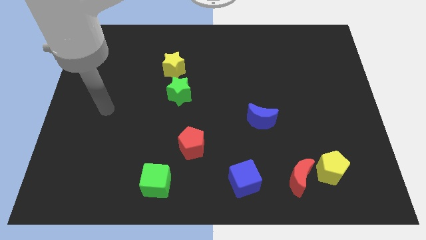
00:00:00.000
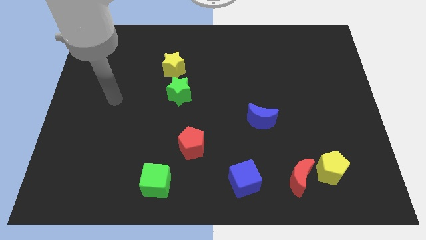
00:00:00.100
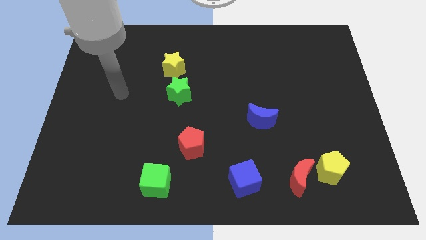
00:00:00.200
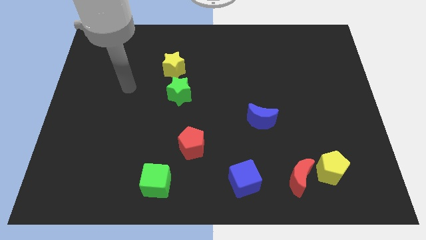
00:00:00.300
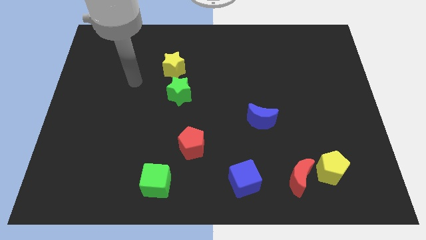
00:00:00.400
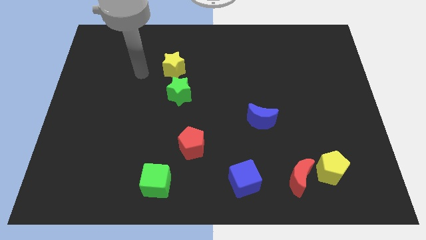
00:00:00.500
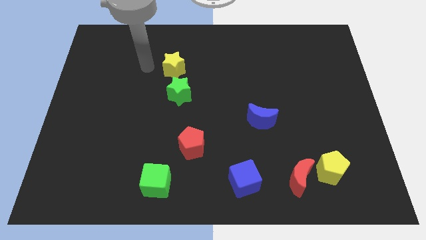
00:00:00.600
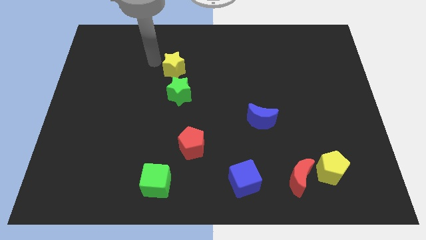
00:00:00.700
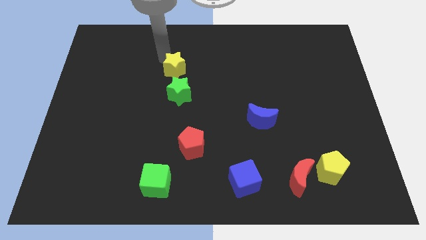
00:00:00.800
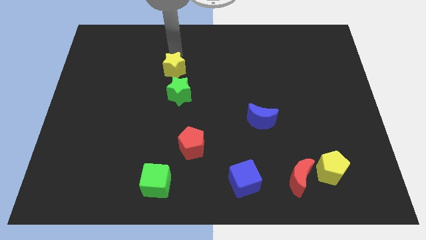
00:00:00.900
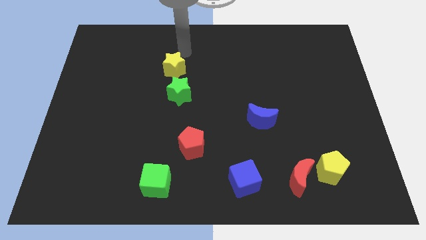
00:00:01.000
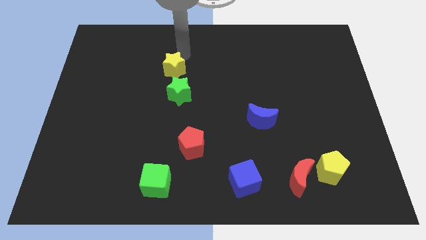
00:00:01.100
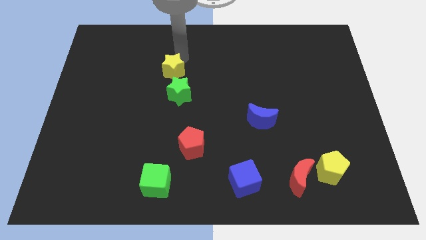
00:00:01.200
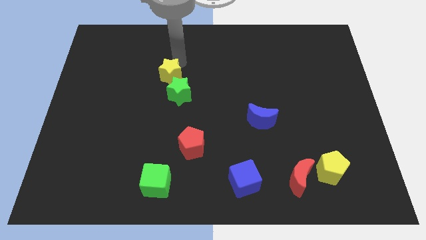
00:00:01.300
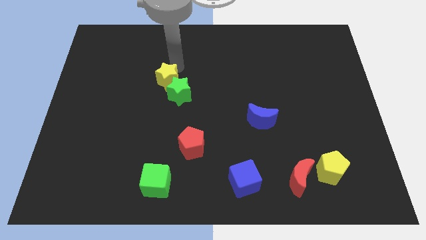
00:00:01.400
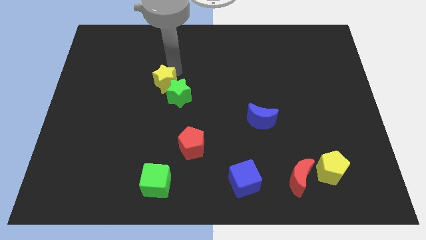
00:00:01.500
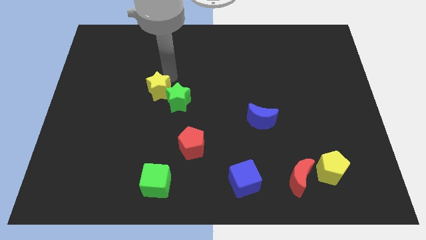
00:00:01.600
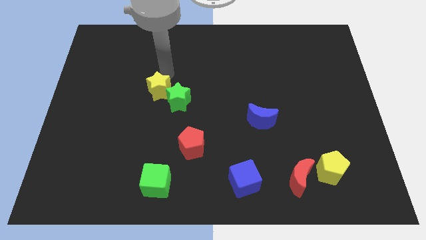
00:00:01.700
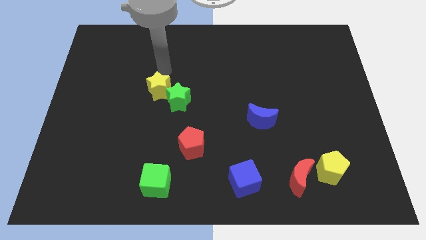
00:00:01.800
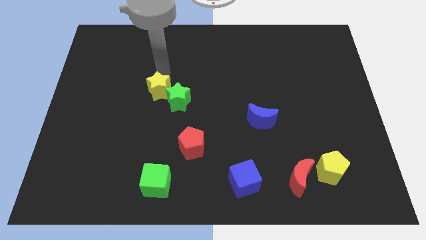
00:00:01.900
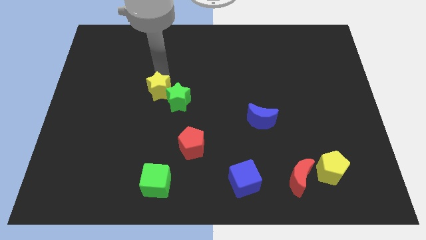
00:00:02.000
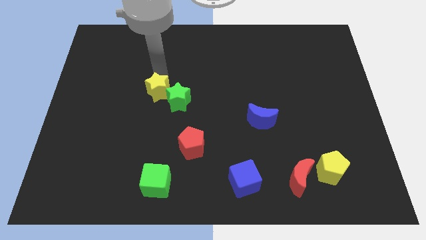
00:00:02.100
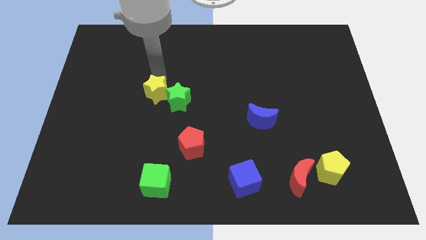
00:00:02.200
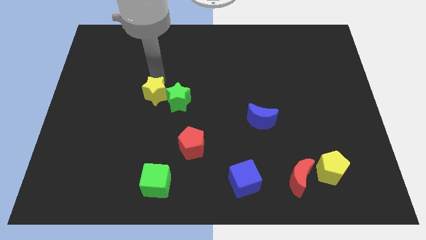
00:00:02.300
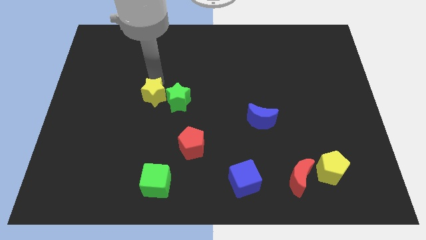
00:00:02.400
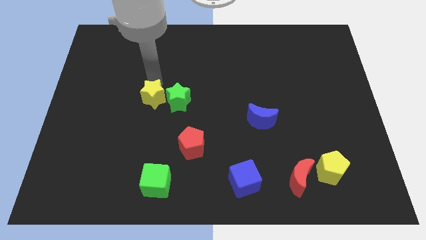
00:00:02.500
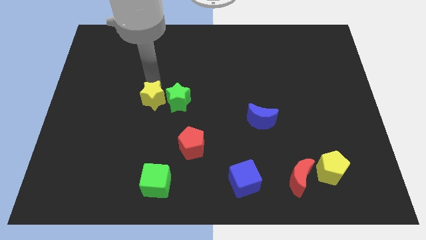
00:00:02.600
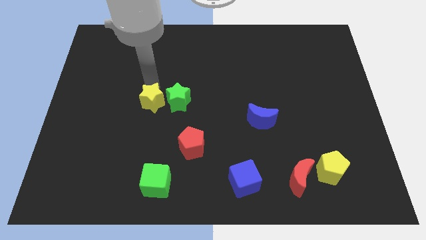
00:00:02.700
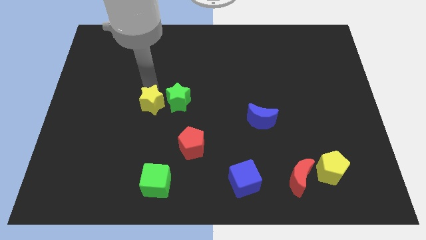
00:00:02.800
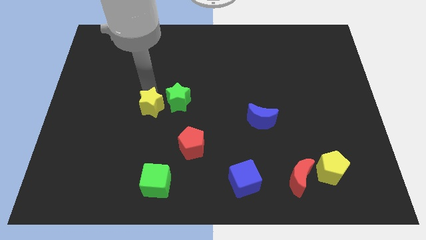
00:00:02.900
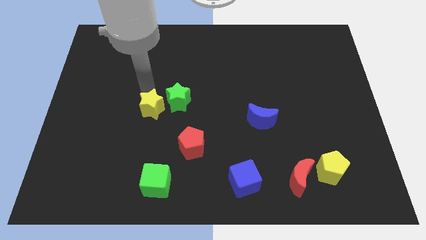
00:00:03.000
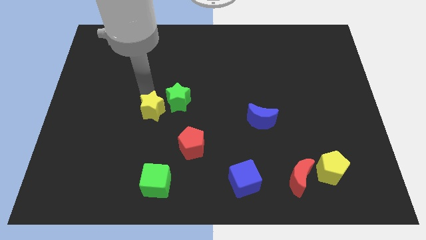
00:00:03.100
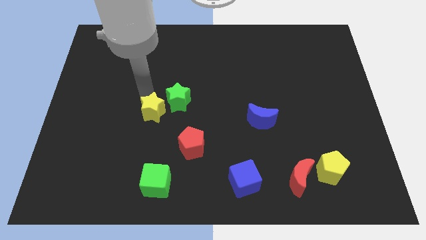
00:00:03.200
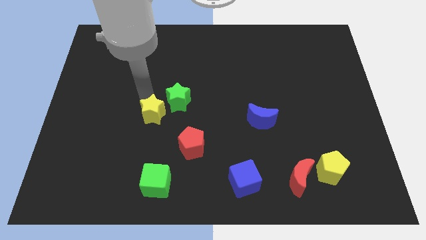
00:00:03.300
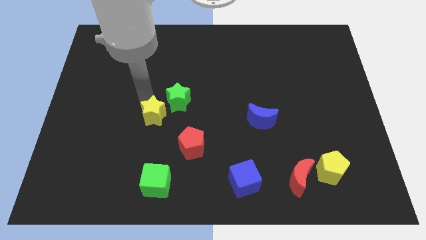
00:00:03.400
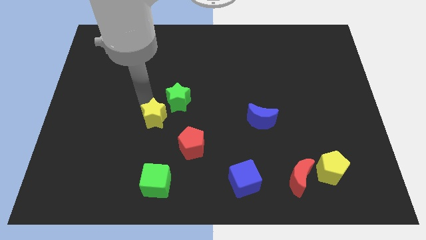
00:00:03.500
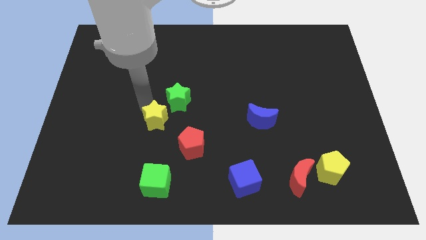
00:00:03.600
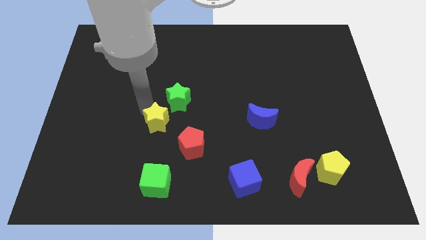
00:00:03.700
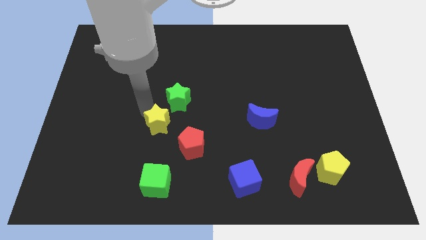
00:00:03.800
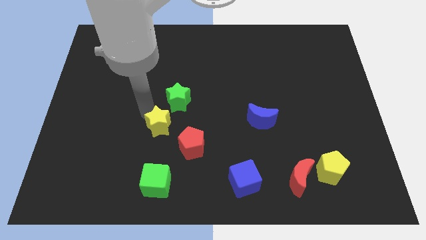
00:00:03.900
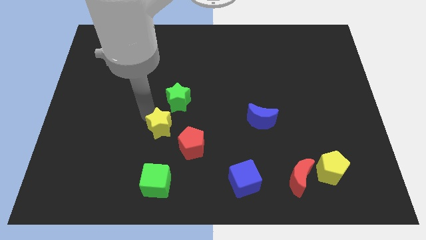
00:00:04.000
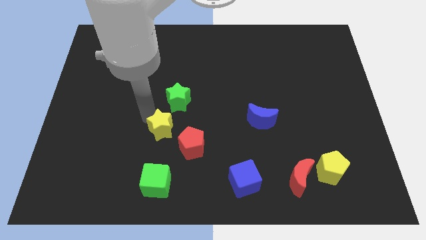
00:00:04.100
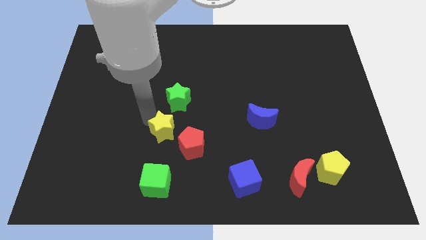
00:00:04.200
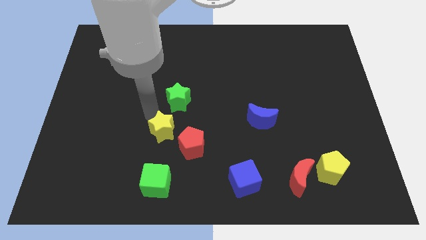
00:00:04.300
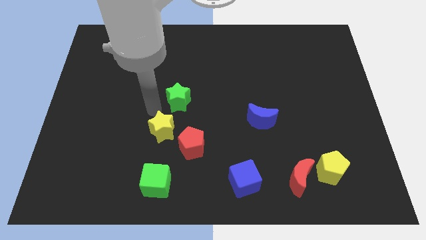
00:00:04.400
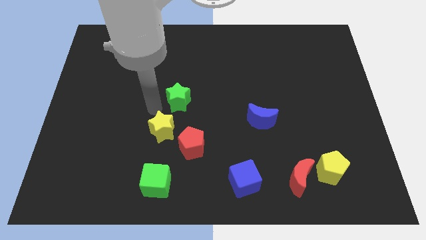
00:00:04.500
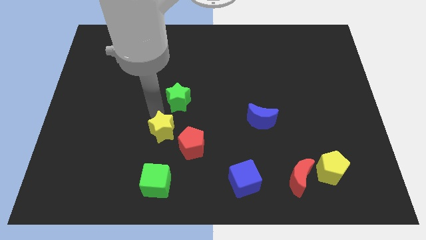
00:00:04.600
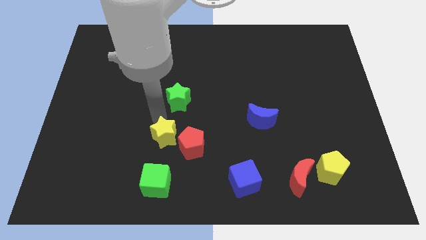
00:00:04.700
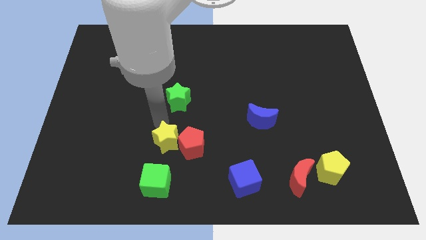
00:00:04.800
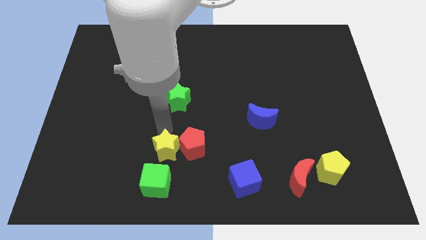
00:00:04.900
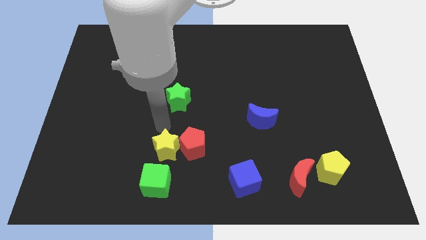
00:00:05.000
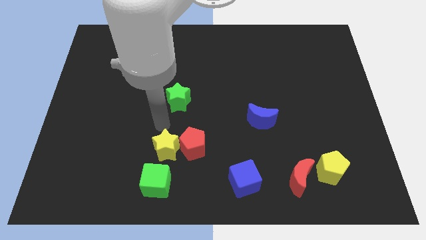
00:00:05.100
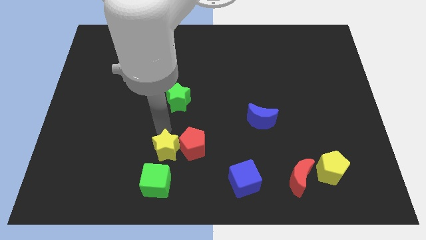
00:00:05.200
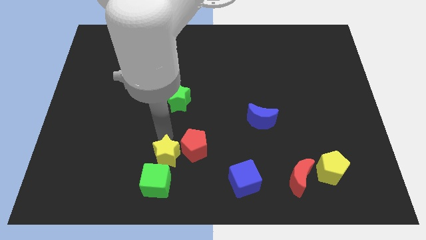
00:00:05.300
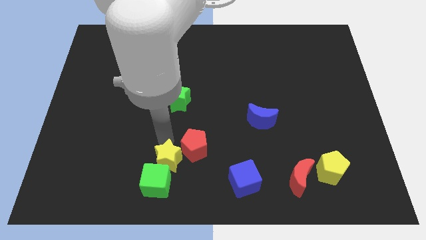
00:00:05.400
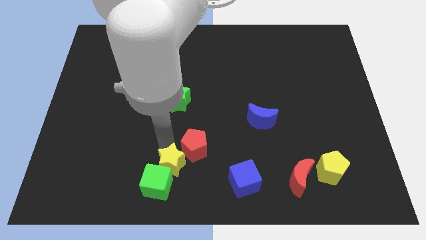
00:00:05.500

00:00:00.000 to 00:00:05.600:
put the yellow star to the bottom side

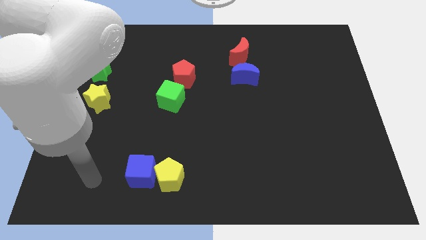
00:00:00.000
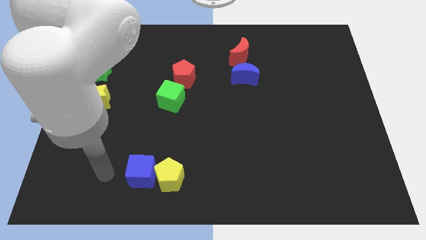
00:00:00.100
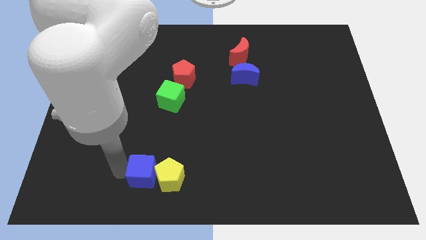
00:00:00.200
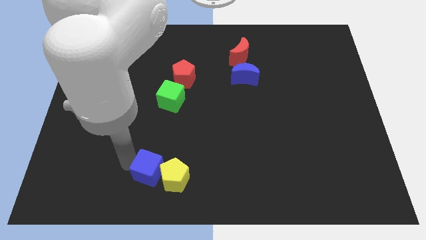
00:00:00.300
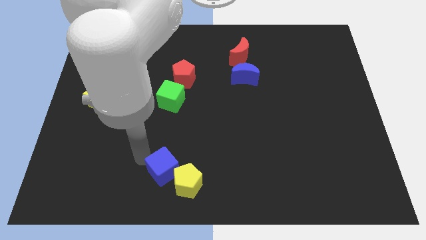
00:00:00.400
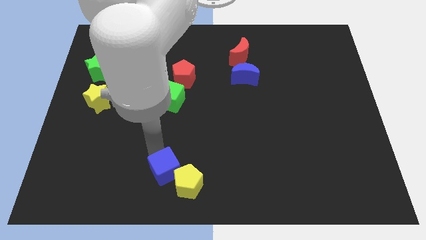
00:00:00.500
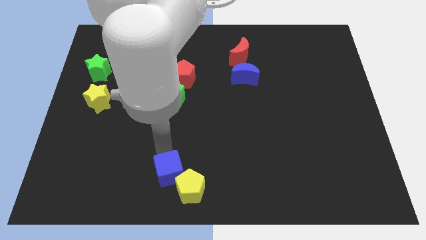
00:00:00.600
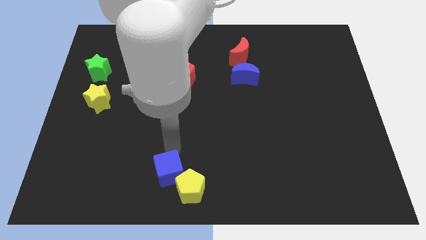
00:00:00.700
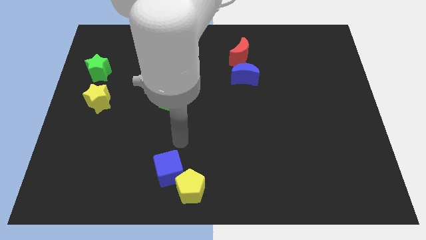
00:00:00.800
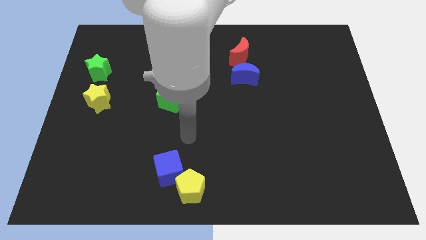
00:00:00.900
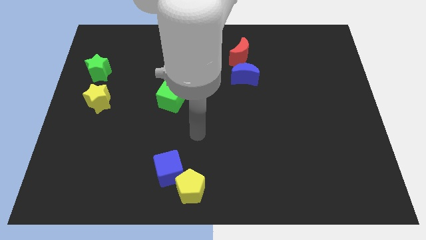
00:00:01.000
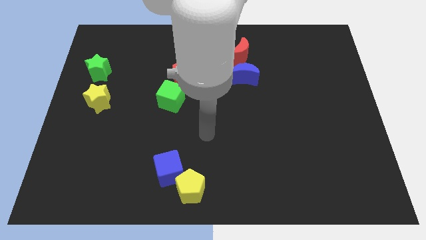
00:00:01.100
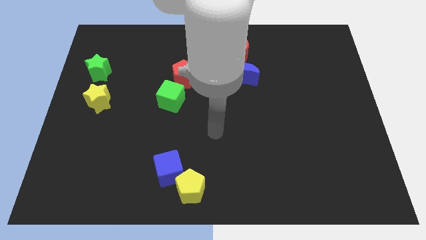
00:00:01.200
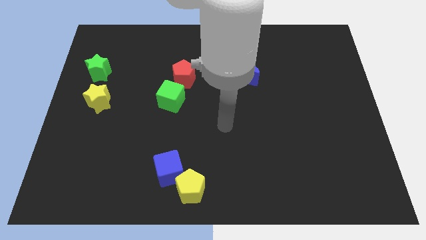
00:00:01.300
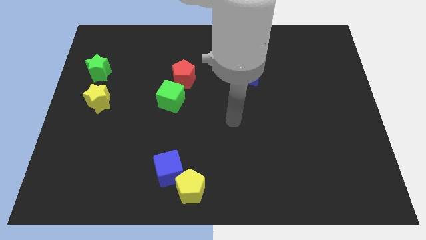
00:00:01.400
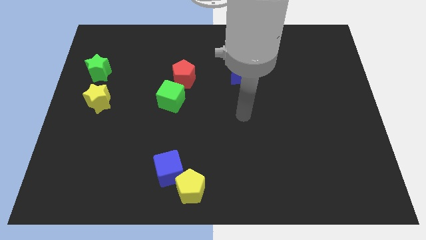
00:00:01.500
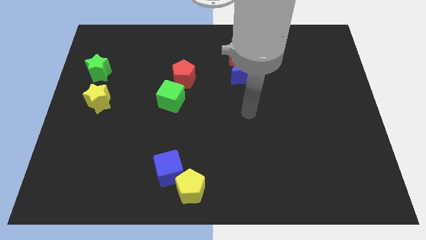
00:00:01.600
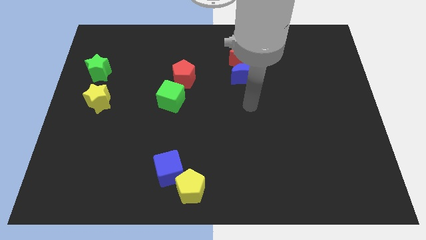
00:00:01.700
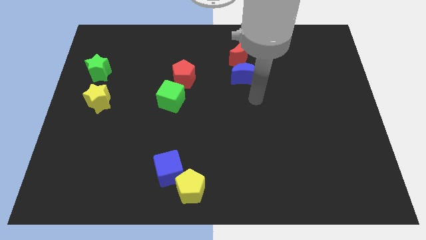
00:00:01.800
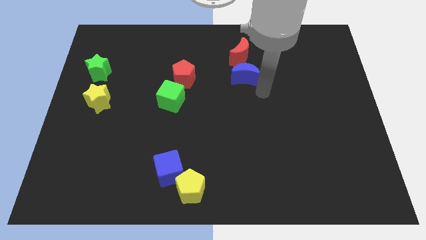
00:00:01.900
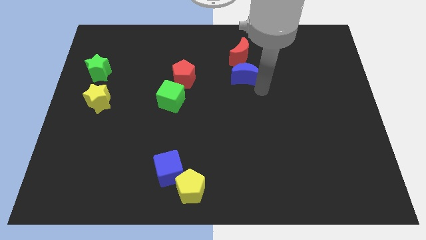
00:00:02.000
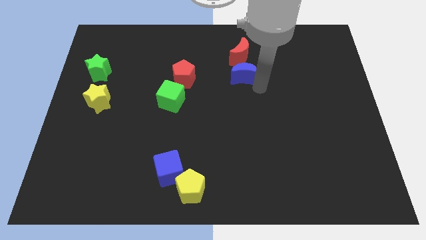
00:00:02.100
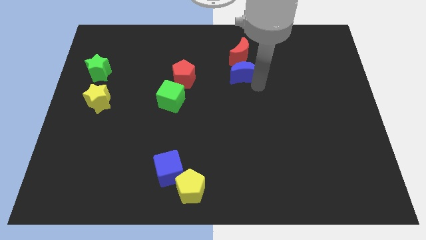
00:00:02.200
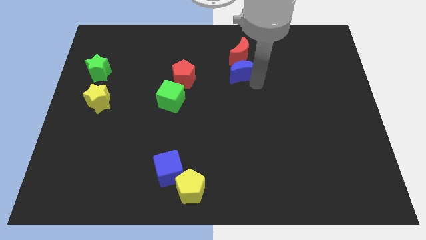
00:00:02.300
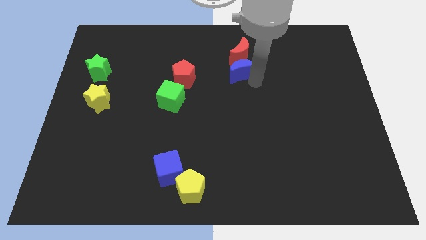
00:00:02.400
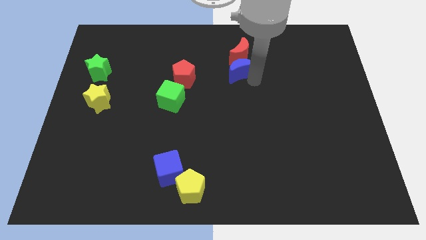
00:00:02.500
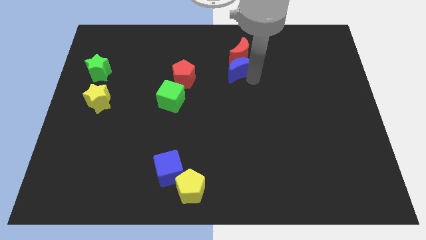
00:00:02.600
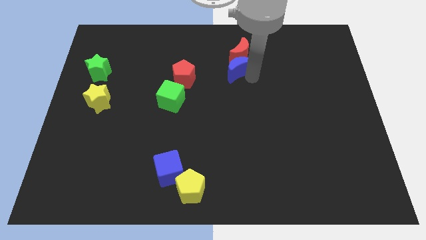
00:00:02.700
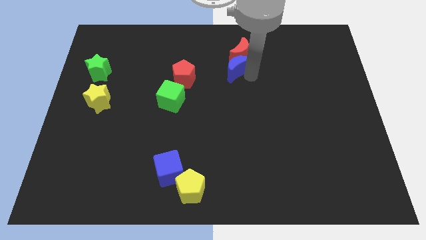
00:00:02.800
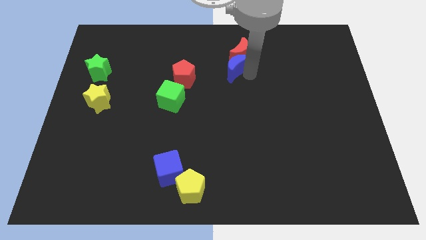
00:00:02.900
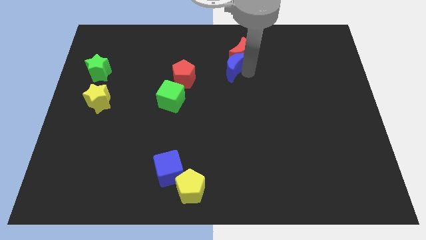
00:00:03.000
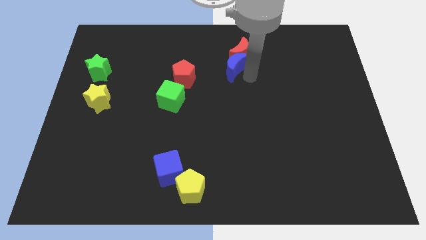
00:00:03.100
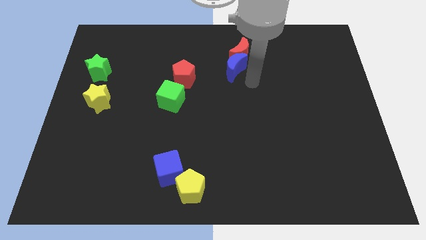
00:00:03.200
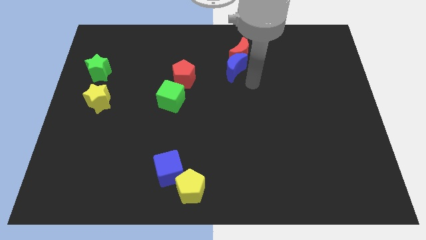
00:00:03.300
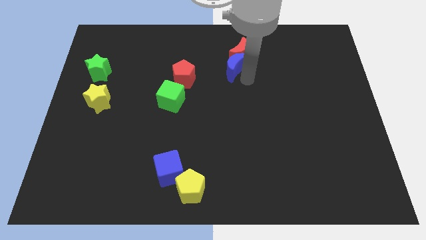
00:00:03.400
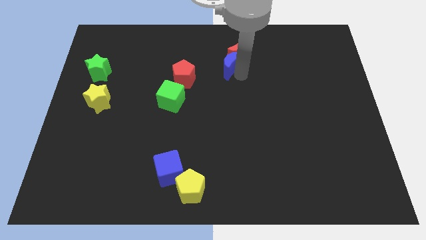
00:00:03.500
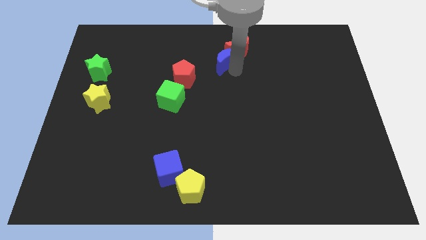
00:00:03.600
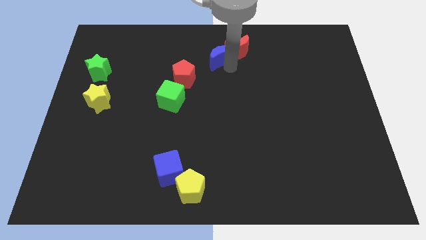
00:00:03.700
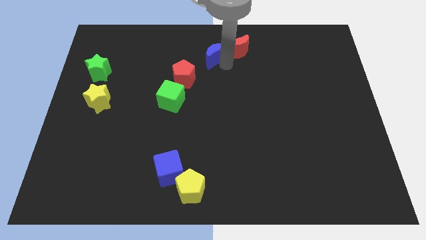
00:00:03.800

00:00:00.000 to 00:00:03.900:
push the blue moon to the top
